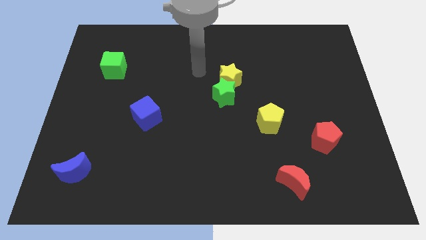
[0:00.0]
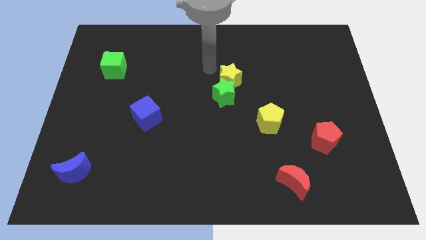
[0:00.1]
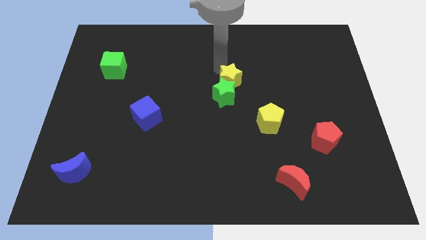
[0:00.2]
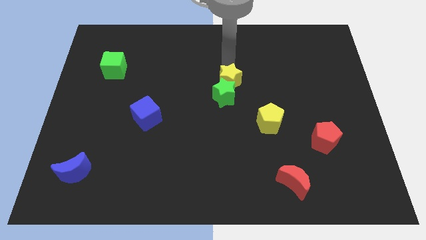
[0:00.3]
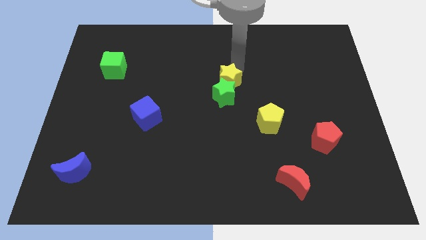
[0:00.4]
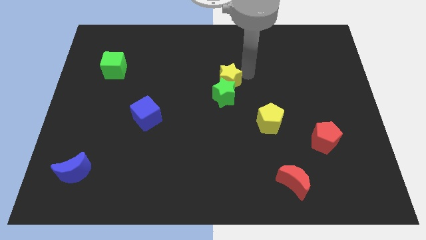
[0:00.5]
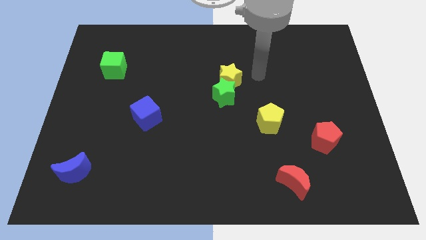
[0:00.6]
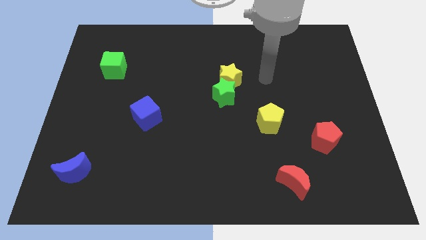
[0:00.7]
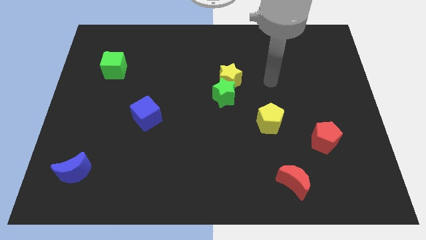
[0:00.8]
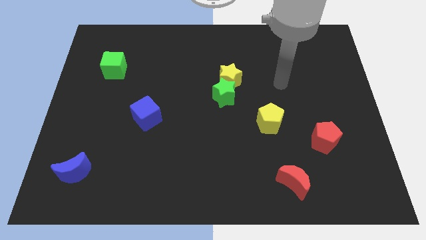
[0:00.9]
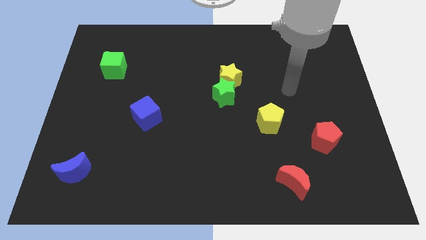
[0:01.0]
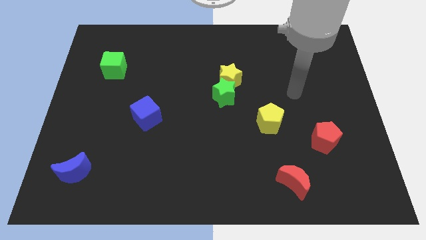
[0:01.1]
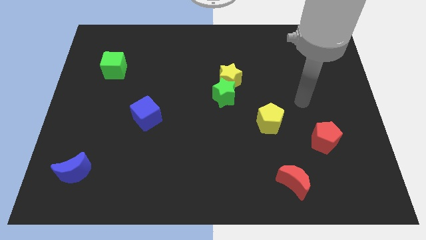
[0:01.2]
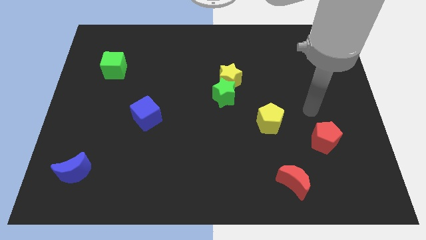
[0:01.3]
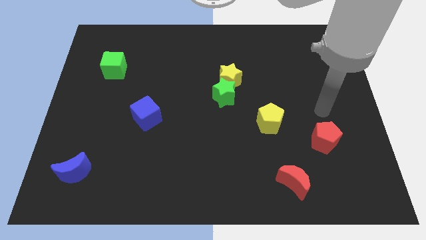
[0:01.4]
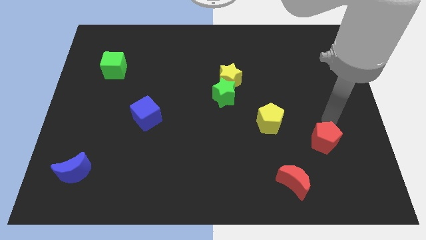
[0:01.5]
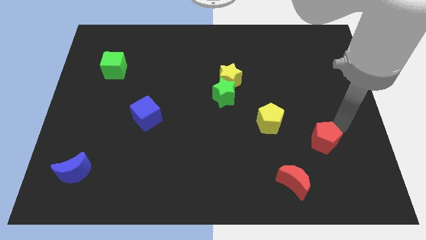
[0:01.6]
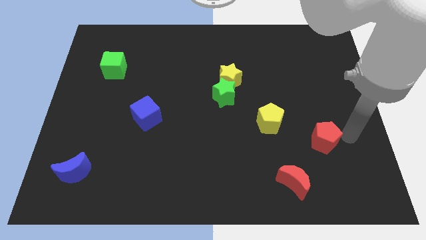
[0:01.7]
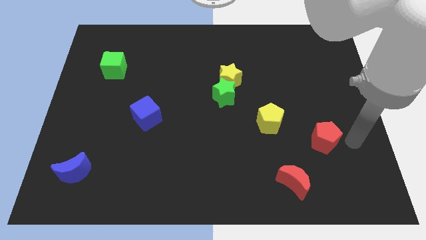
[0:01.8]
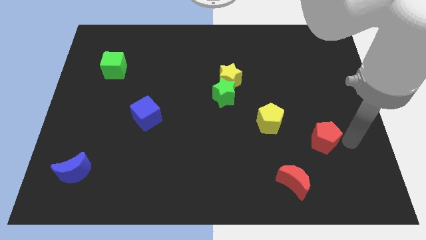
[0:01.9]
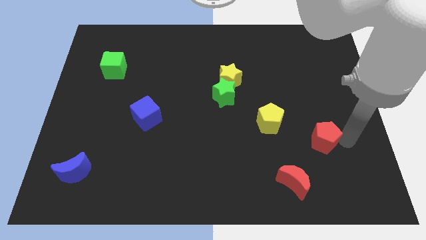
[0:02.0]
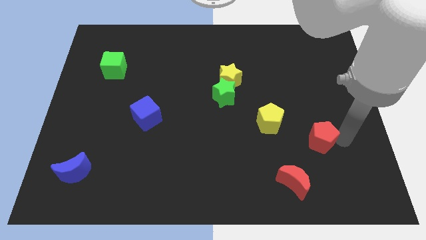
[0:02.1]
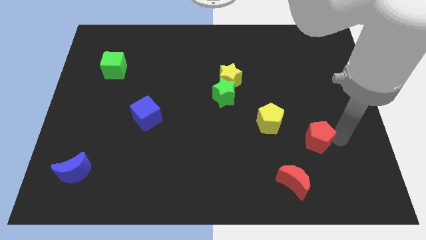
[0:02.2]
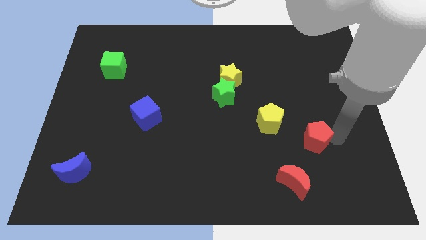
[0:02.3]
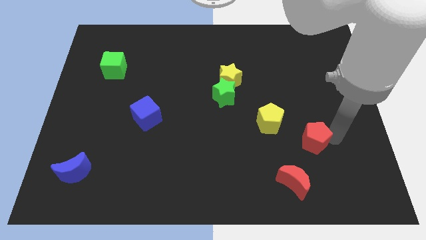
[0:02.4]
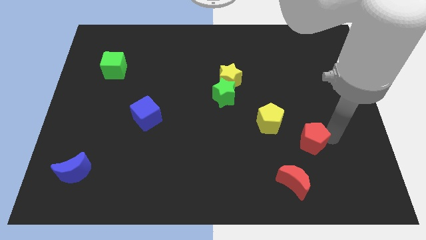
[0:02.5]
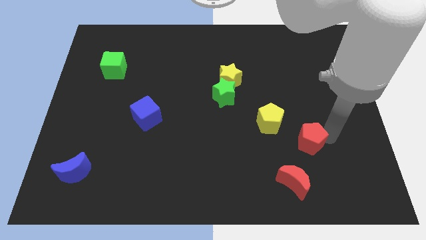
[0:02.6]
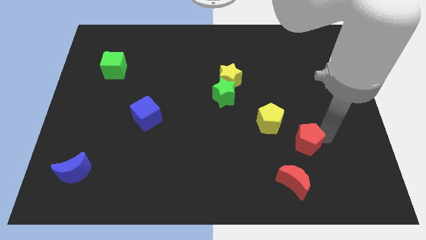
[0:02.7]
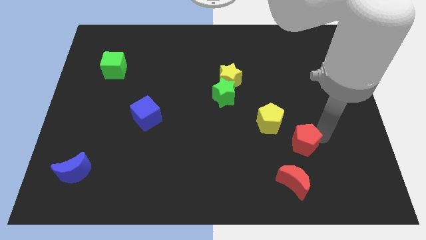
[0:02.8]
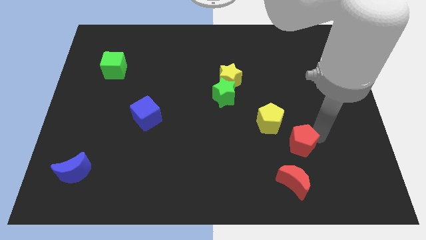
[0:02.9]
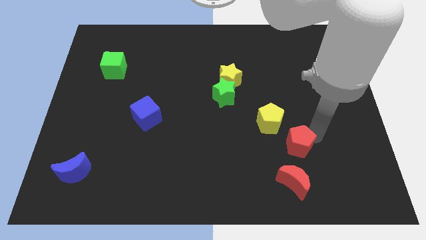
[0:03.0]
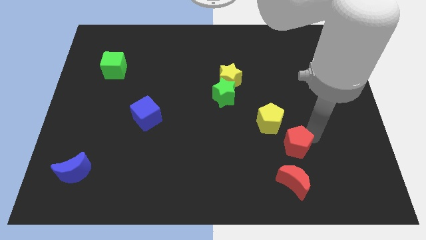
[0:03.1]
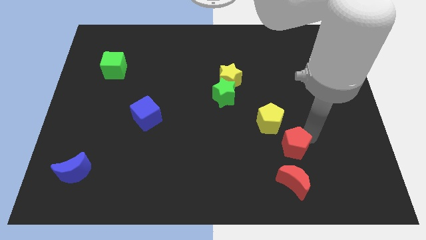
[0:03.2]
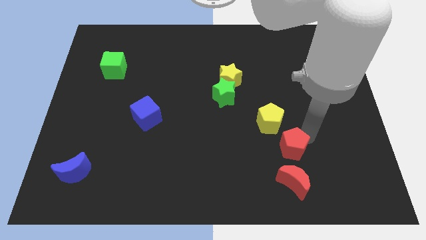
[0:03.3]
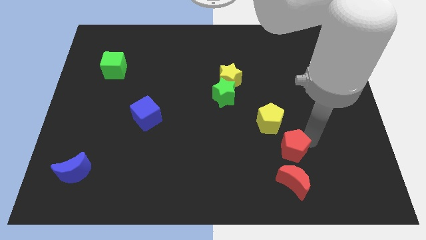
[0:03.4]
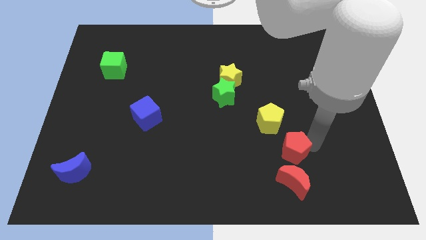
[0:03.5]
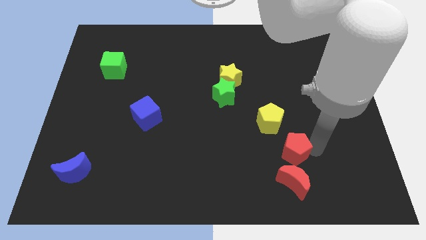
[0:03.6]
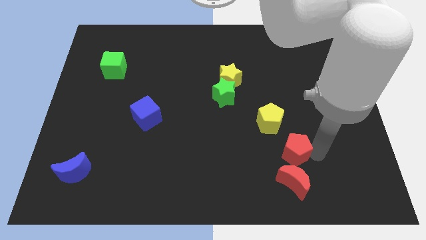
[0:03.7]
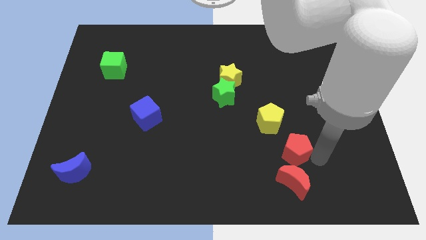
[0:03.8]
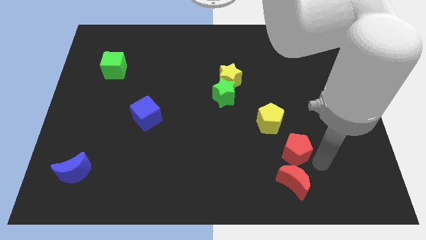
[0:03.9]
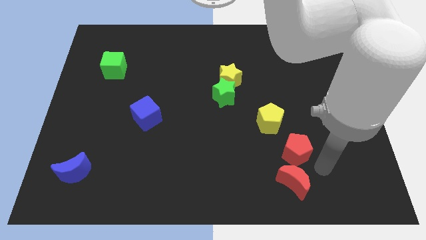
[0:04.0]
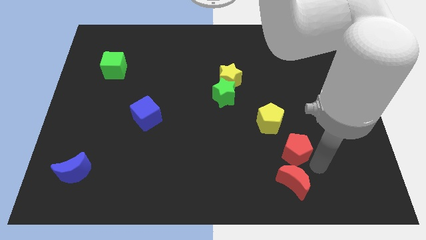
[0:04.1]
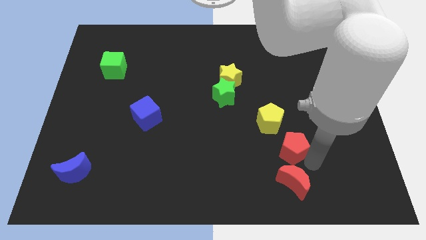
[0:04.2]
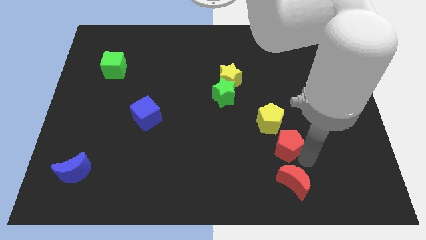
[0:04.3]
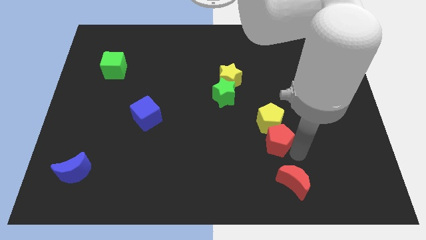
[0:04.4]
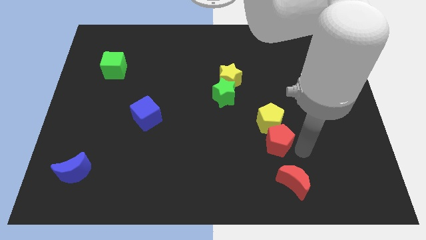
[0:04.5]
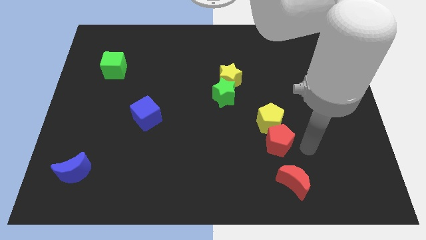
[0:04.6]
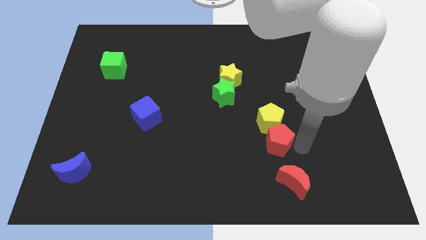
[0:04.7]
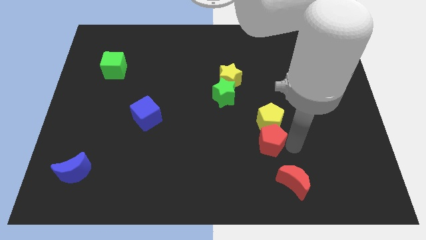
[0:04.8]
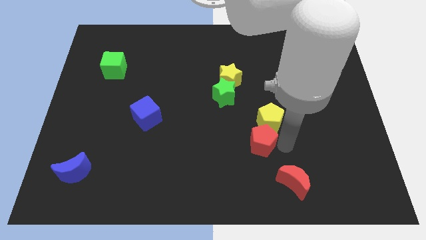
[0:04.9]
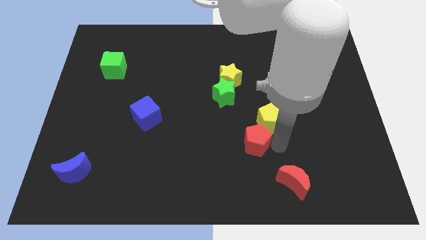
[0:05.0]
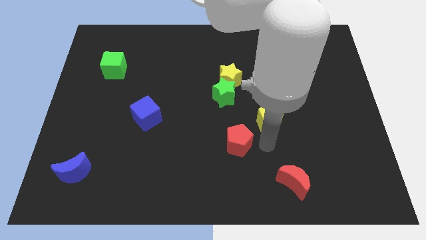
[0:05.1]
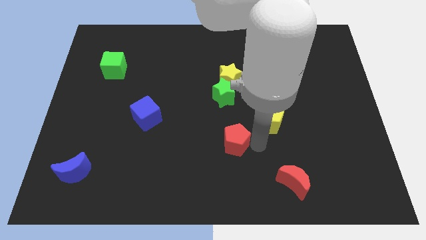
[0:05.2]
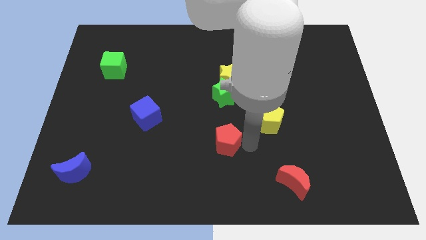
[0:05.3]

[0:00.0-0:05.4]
slide the red pentagon left

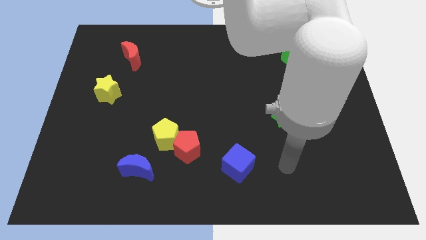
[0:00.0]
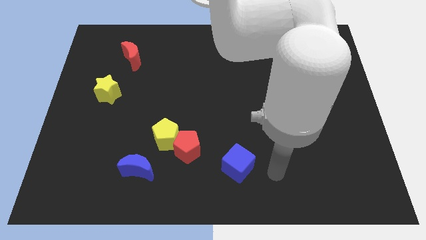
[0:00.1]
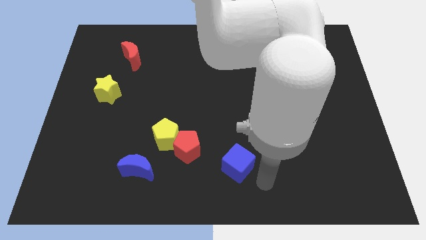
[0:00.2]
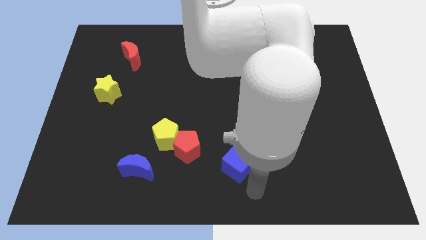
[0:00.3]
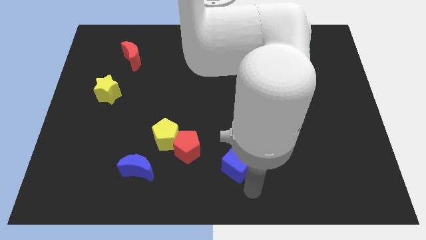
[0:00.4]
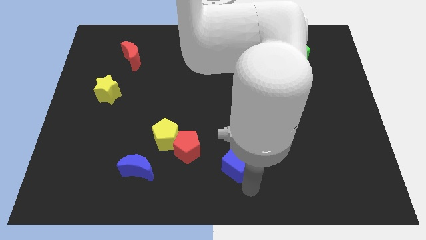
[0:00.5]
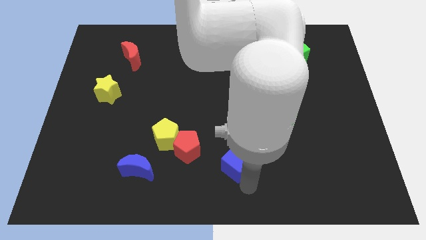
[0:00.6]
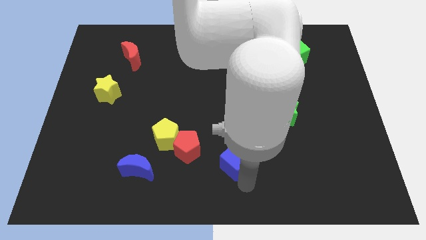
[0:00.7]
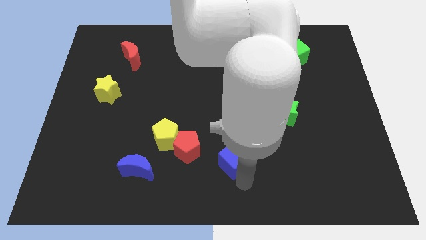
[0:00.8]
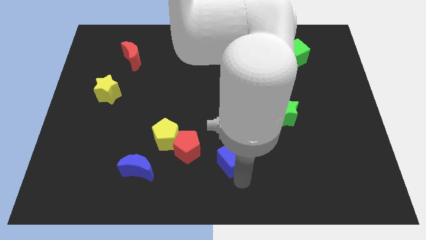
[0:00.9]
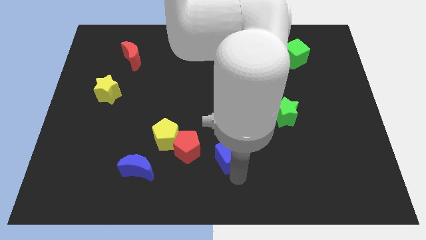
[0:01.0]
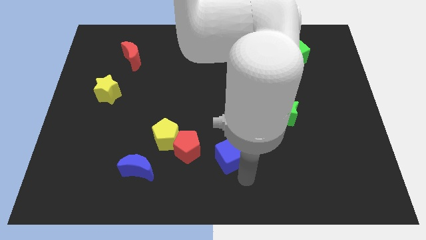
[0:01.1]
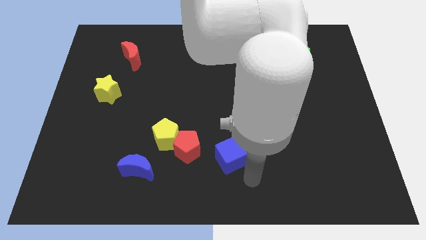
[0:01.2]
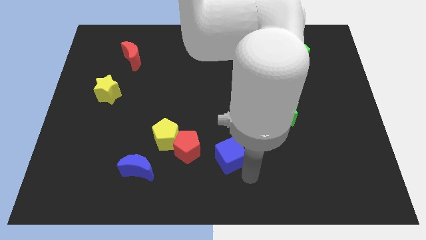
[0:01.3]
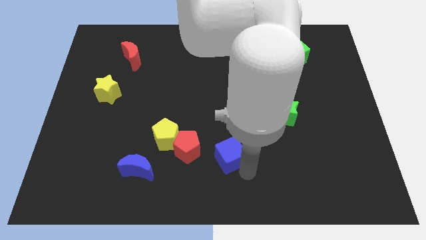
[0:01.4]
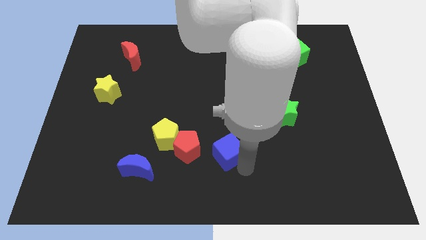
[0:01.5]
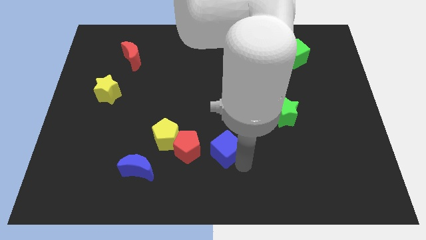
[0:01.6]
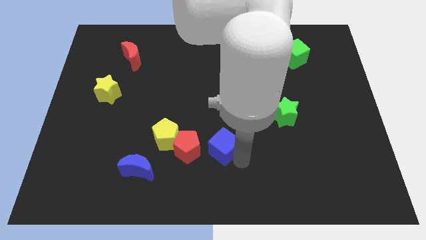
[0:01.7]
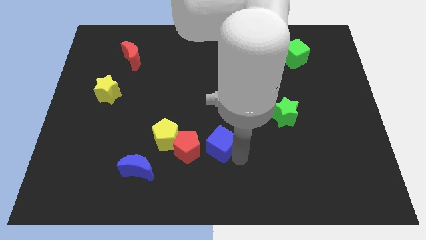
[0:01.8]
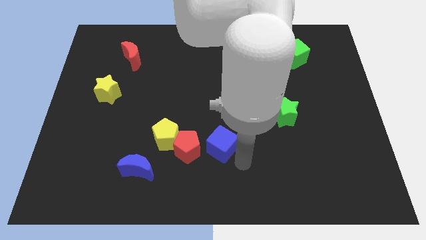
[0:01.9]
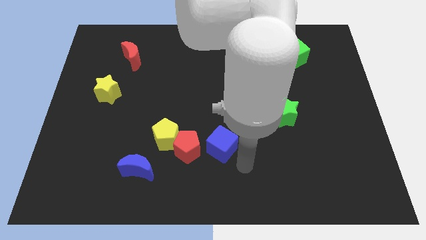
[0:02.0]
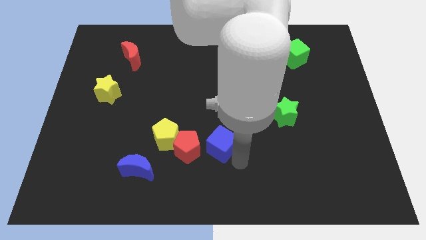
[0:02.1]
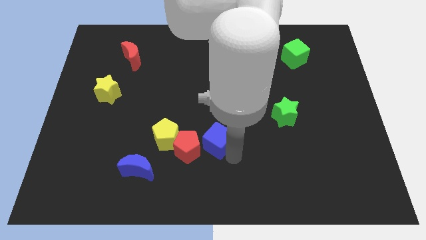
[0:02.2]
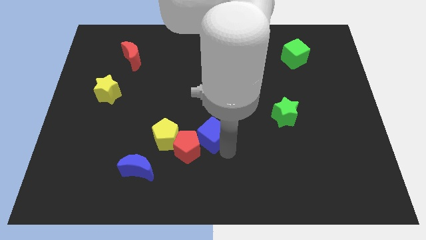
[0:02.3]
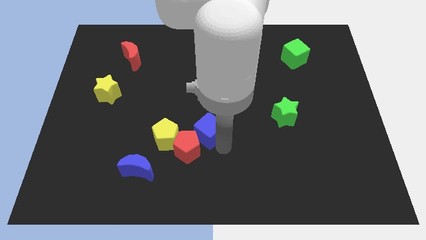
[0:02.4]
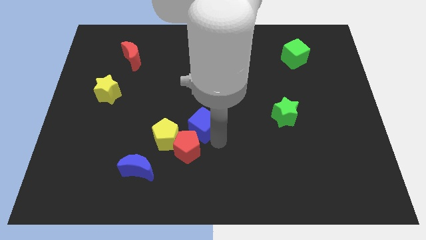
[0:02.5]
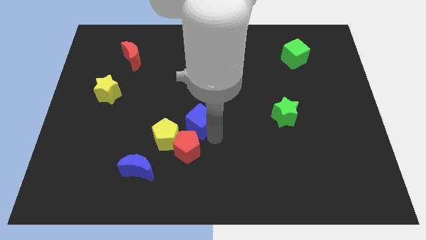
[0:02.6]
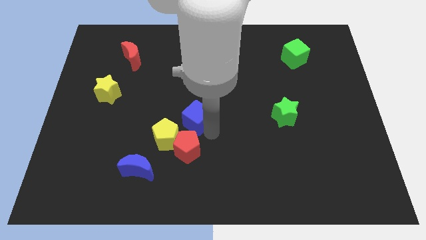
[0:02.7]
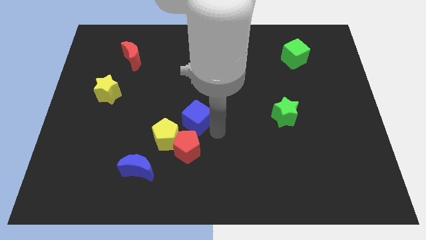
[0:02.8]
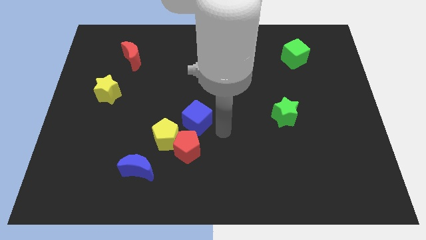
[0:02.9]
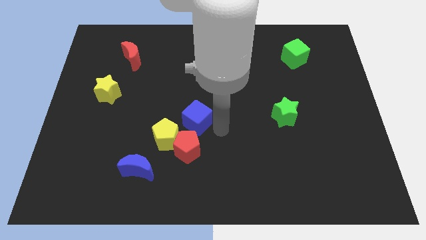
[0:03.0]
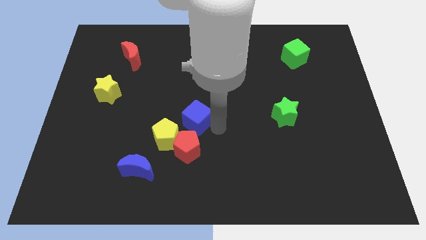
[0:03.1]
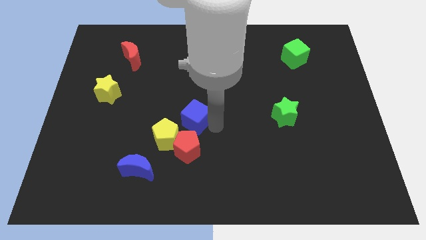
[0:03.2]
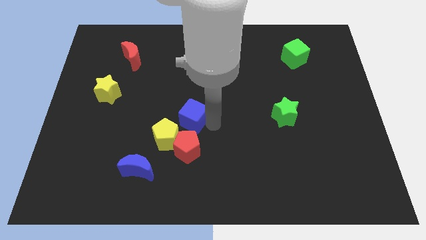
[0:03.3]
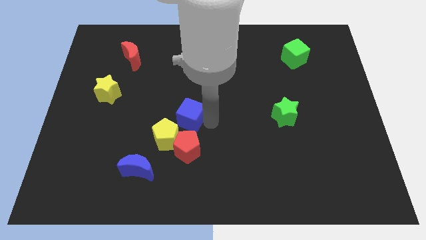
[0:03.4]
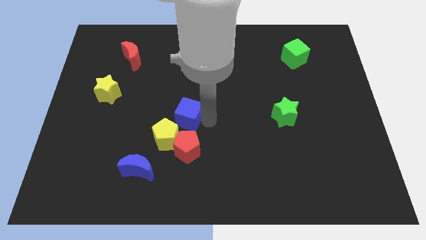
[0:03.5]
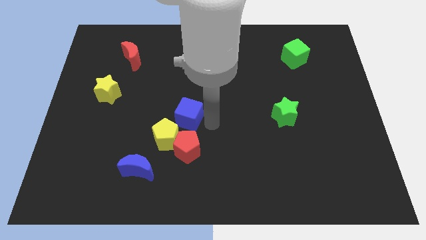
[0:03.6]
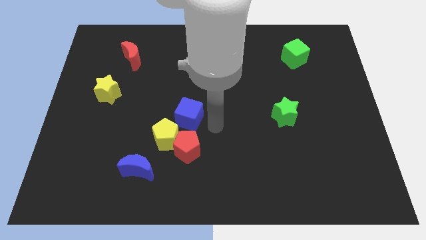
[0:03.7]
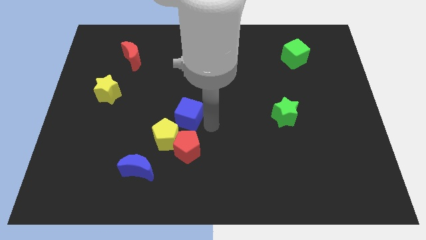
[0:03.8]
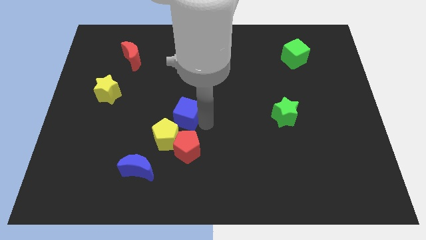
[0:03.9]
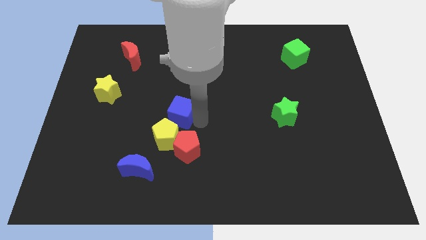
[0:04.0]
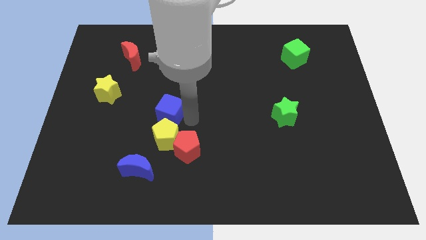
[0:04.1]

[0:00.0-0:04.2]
push the blue cube diagonally upwards and left
